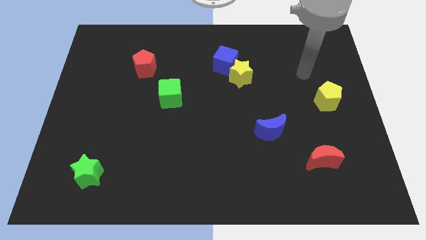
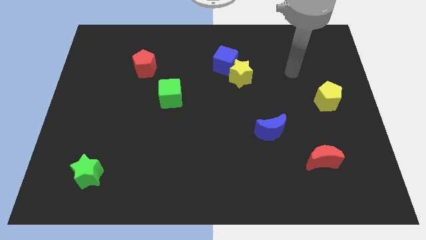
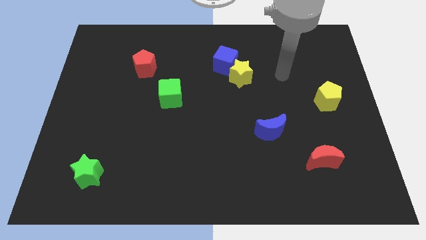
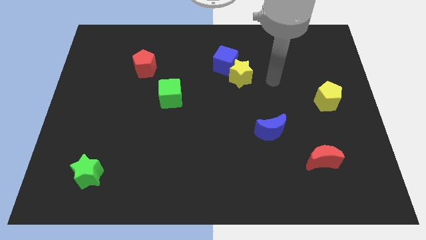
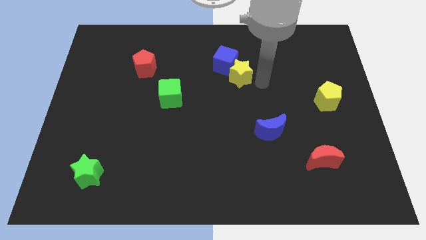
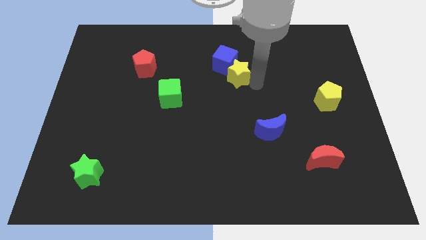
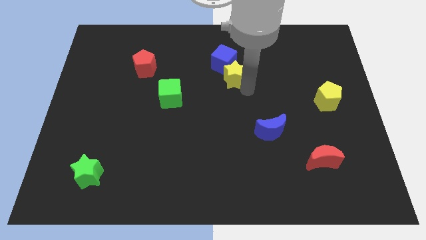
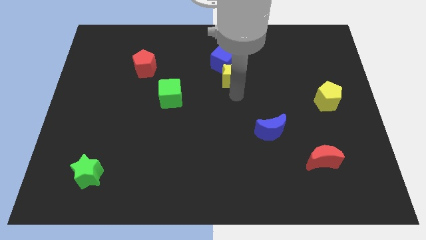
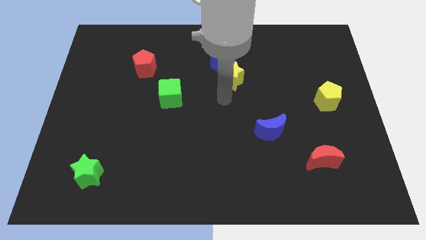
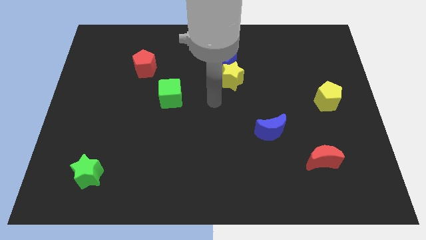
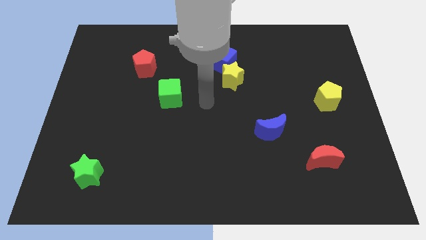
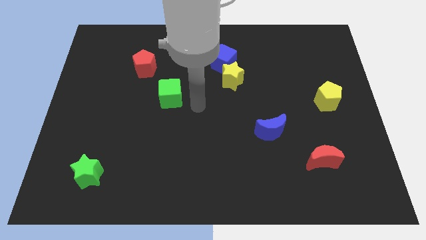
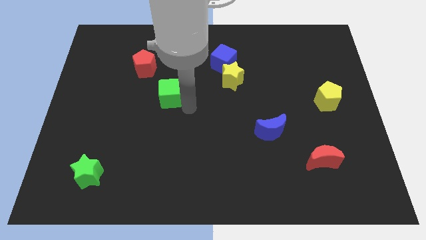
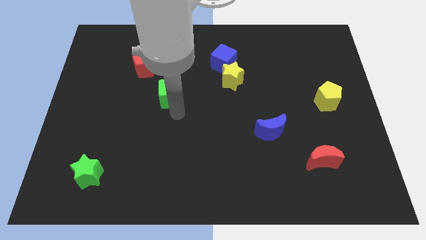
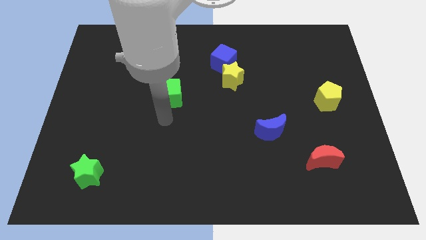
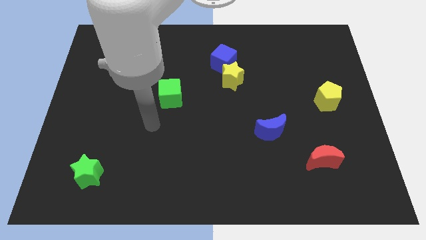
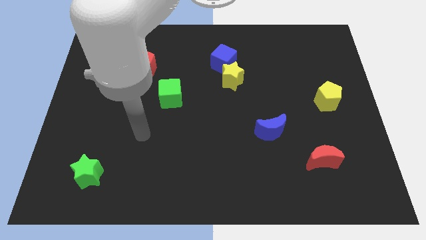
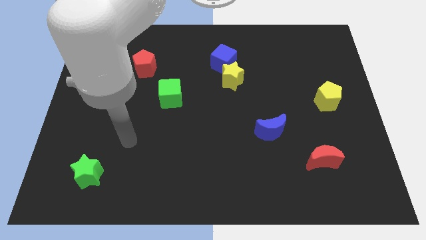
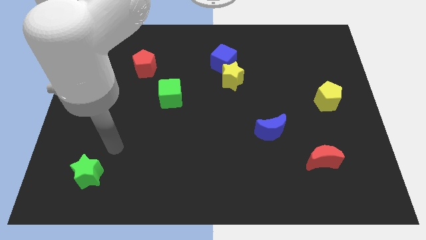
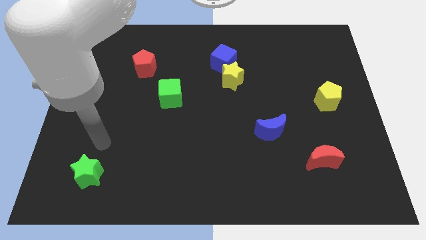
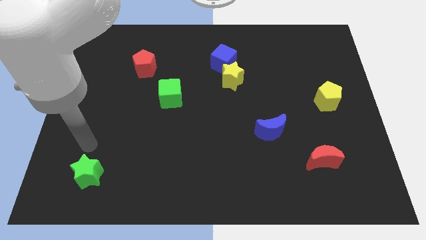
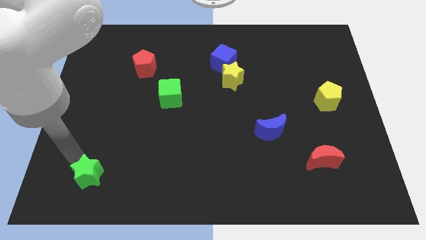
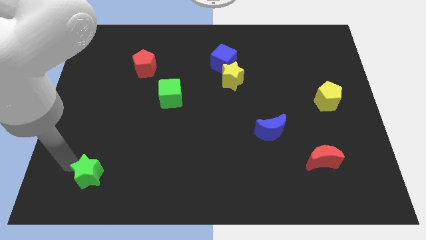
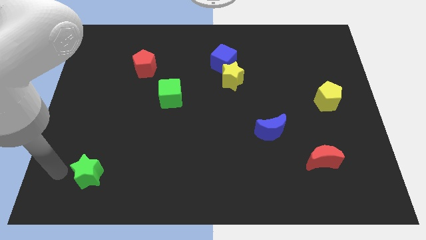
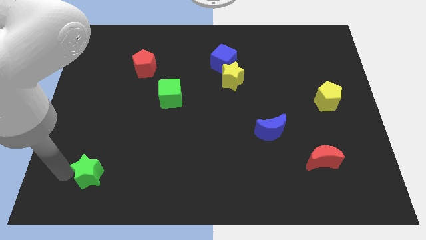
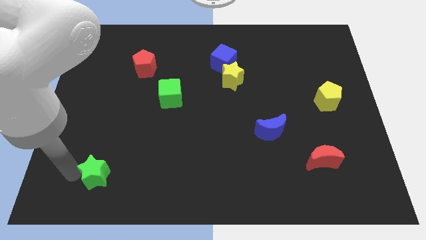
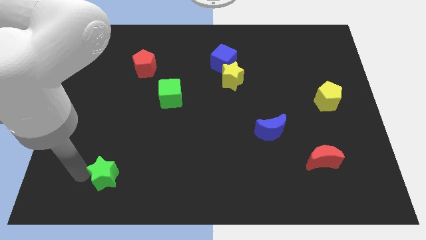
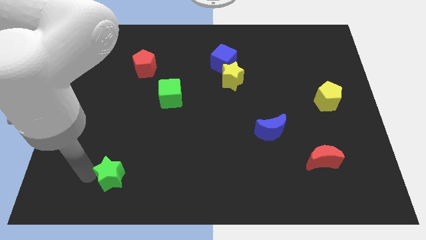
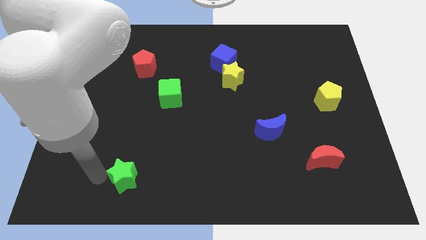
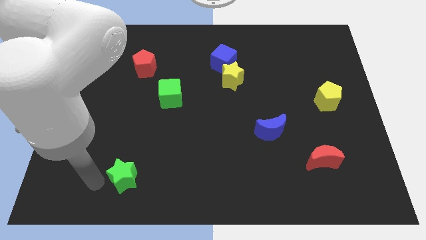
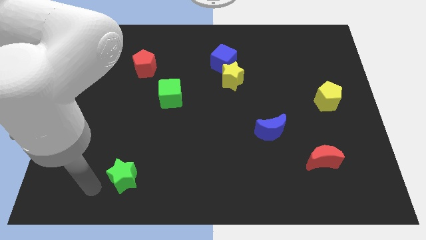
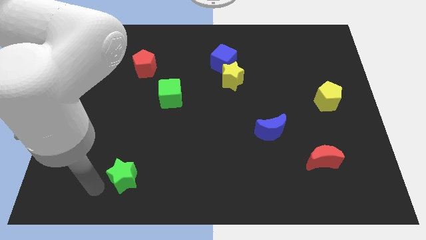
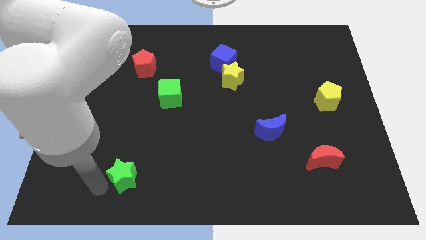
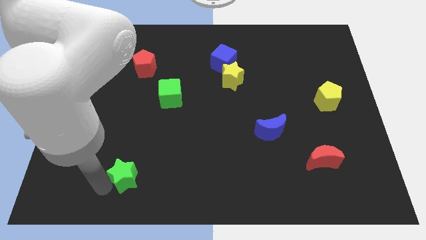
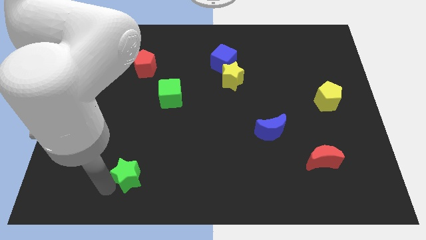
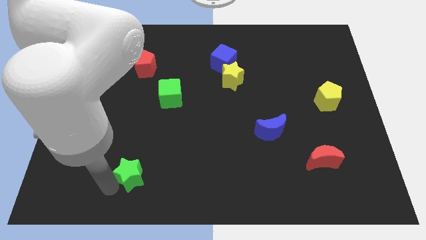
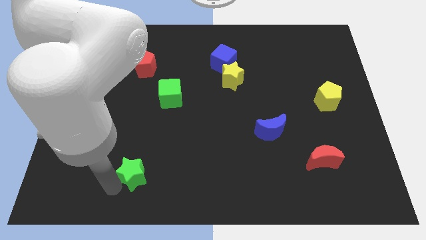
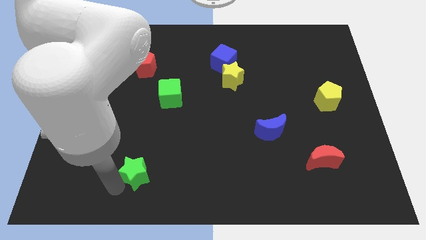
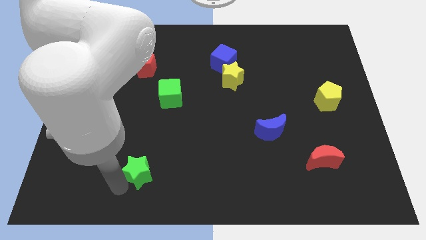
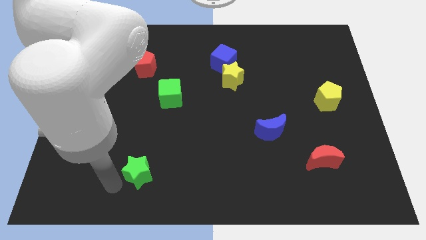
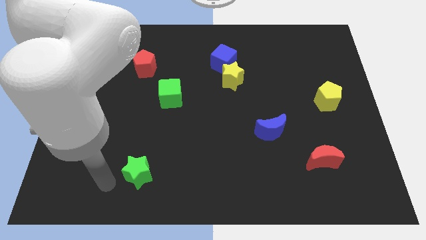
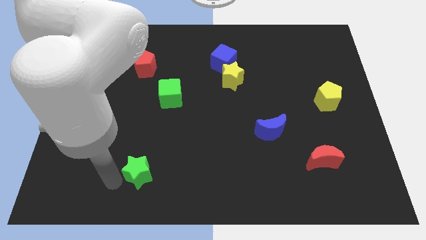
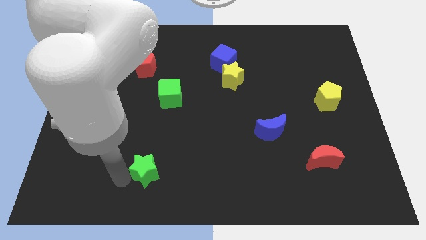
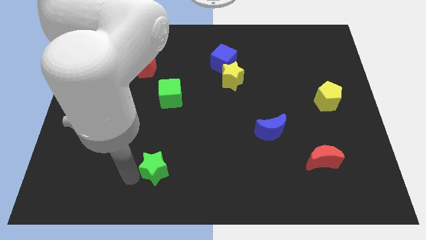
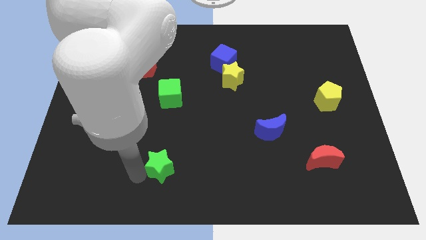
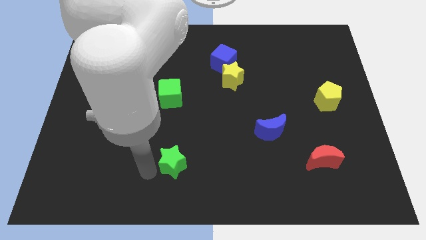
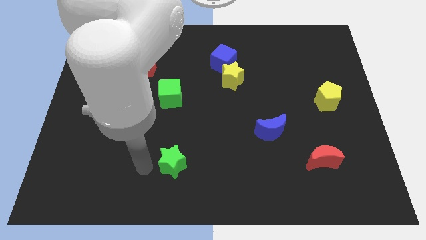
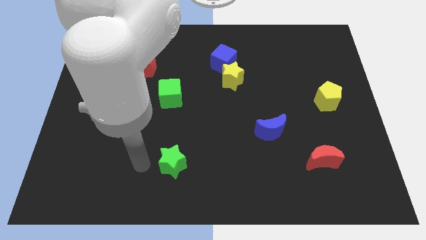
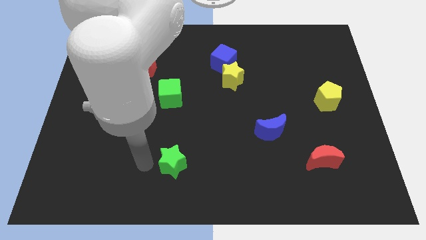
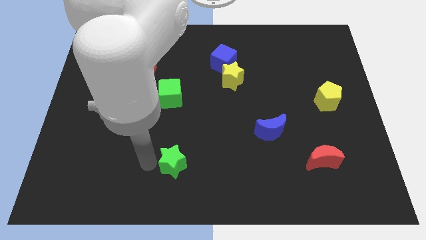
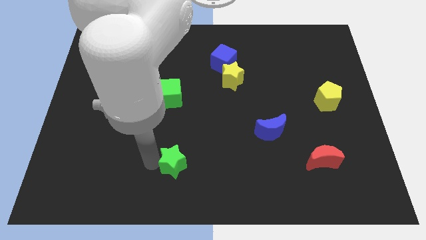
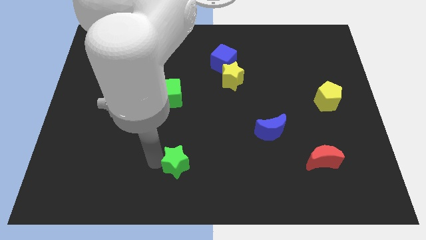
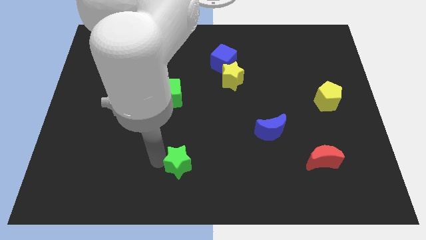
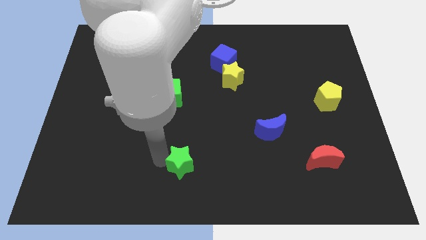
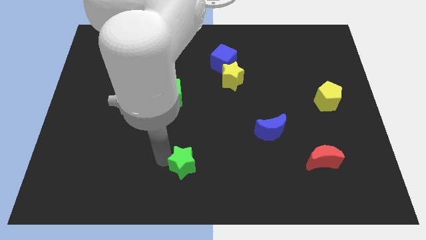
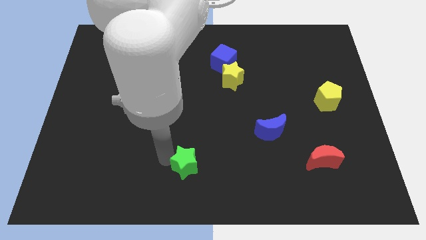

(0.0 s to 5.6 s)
move the green star right

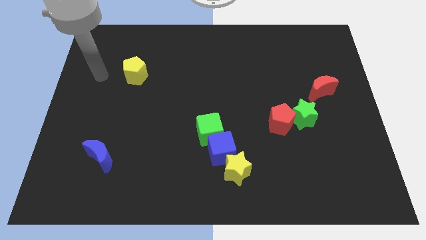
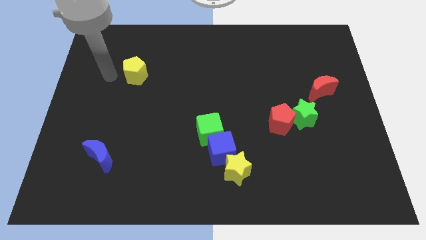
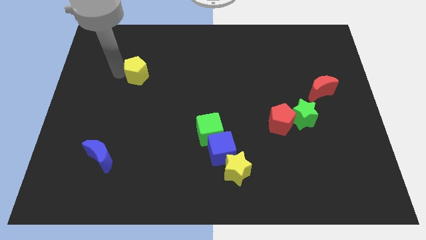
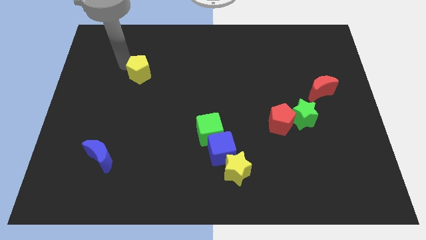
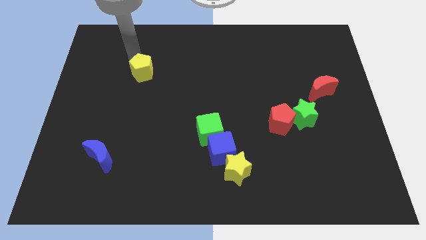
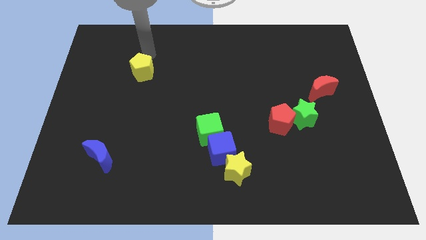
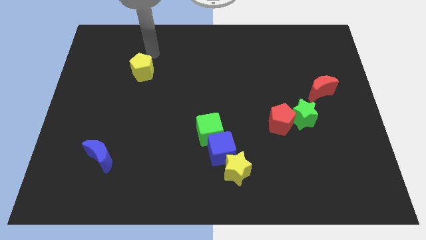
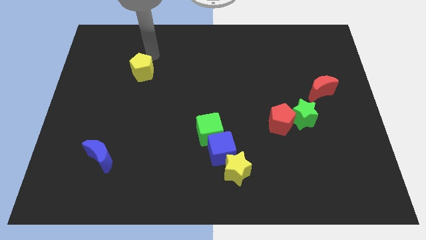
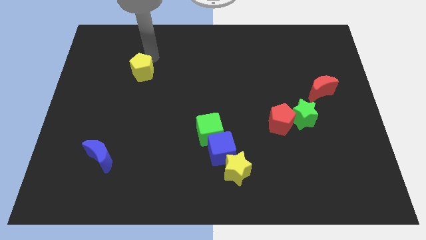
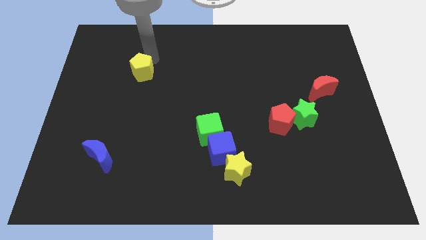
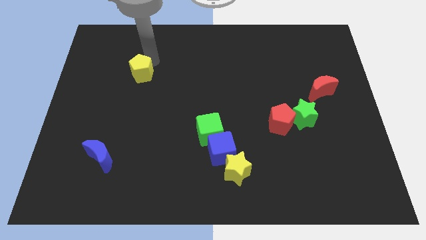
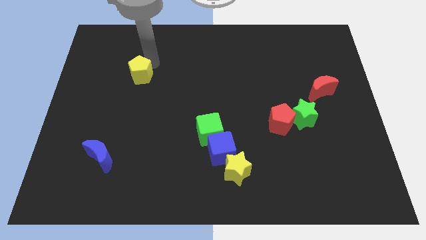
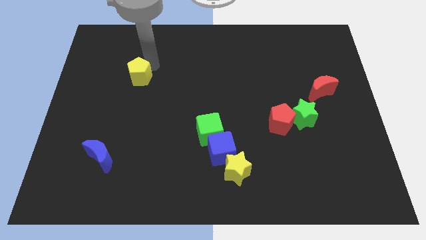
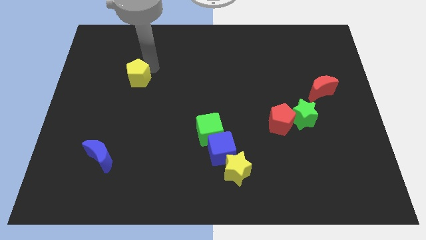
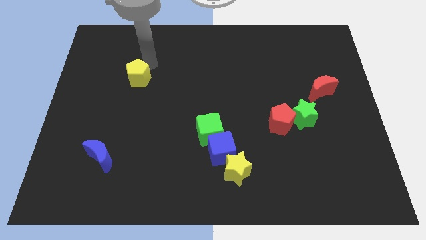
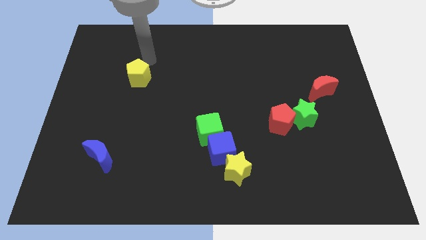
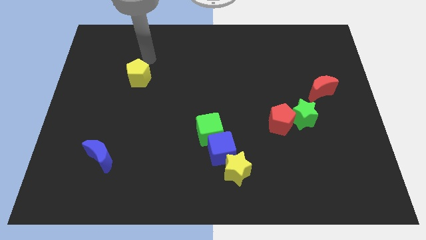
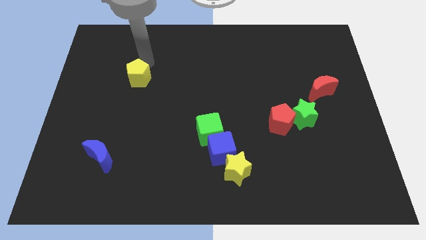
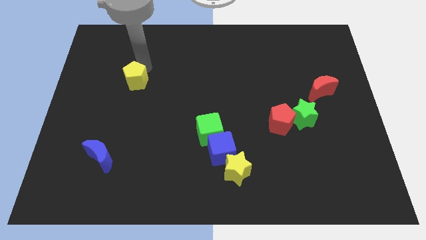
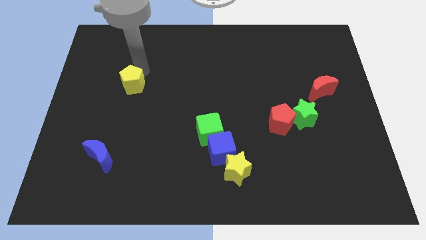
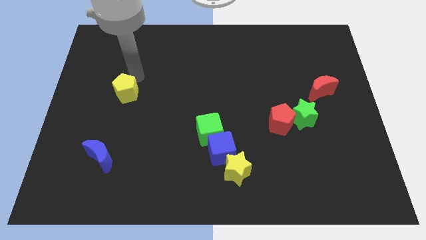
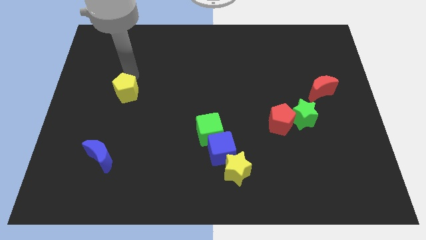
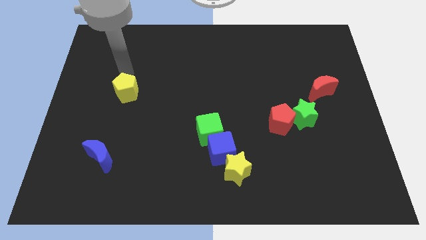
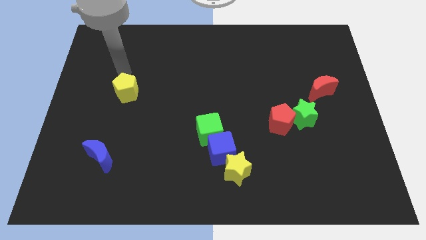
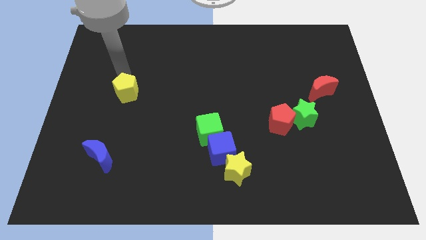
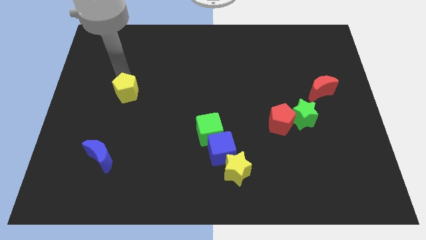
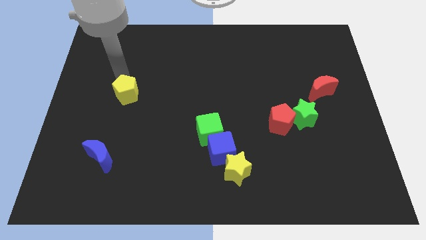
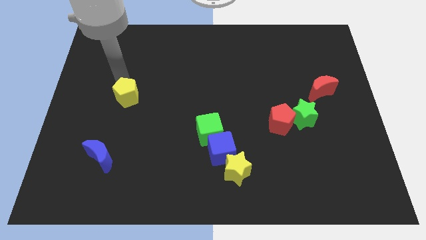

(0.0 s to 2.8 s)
slightly move the yellow pentagon downwards

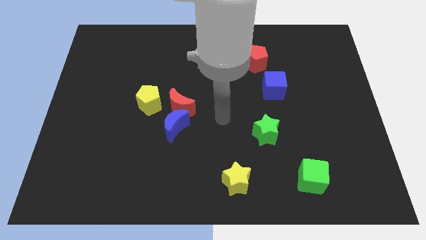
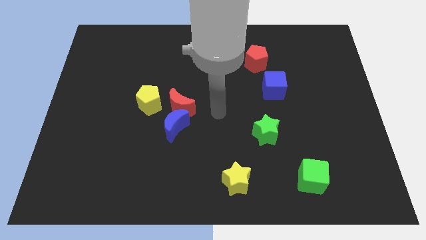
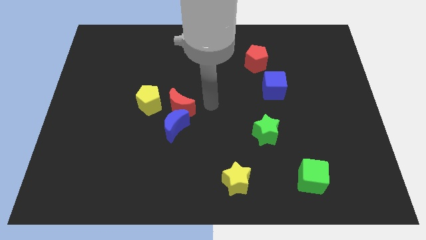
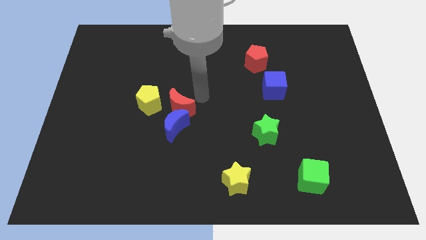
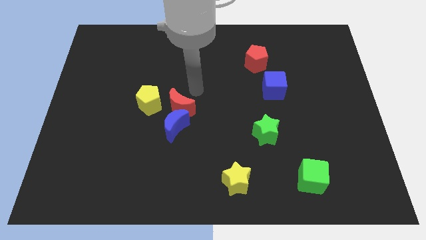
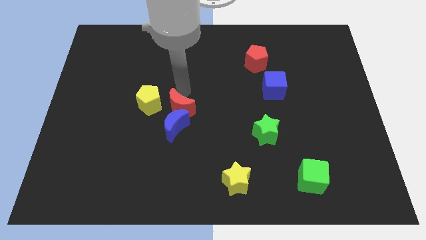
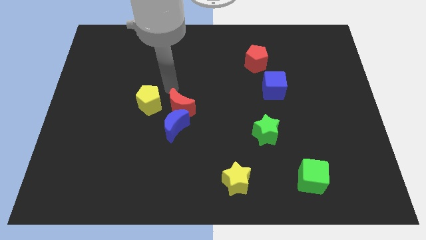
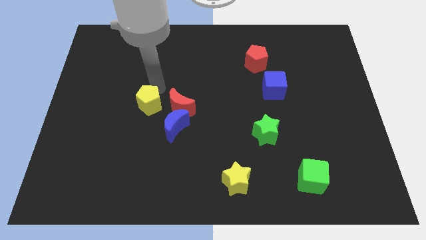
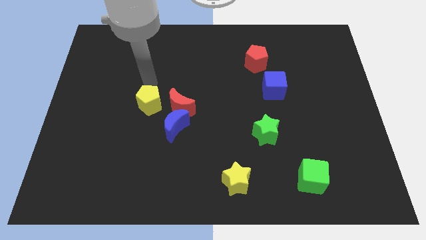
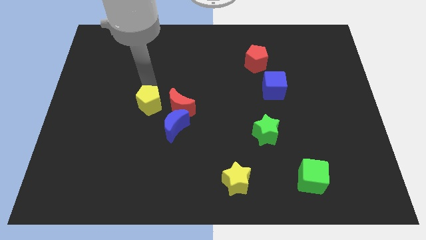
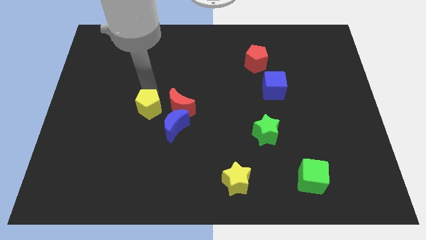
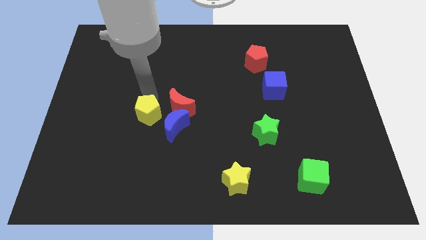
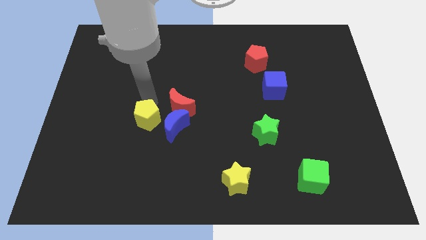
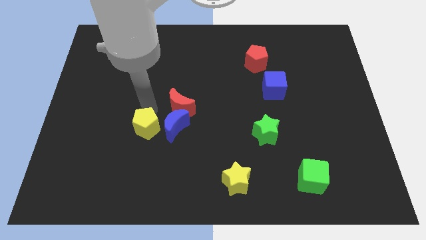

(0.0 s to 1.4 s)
move the yellow pentagon downwards a little
